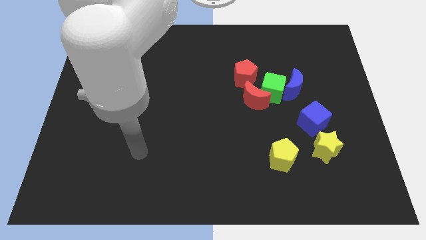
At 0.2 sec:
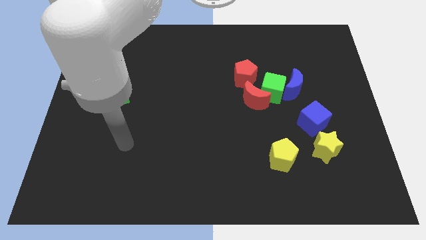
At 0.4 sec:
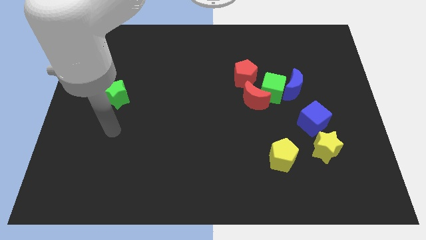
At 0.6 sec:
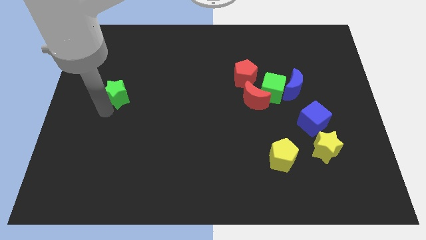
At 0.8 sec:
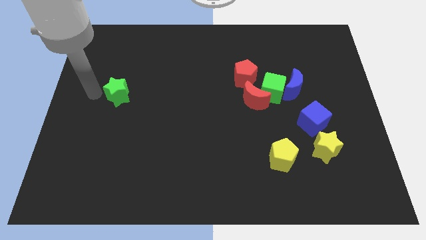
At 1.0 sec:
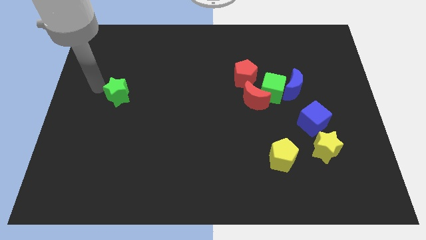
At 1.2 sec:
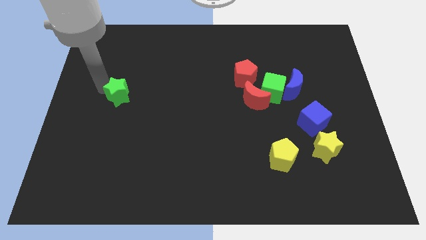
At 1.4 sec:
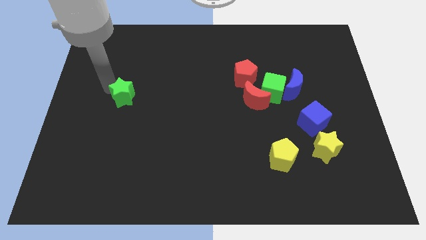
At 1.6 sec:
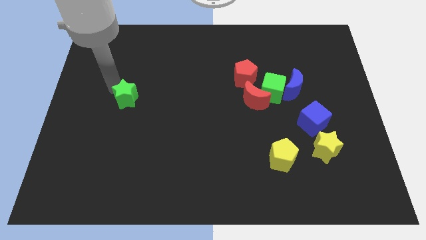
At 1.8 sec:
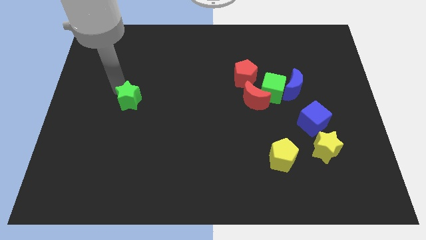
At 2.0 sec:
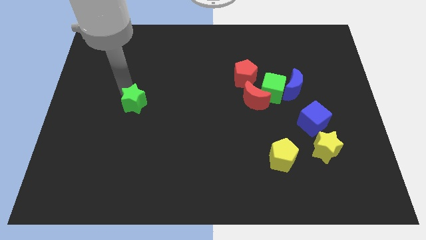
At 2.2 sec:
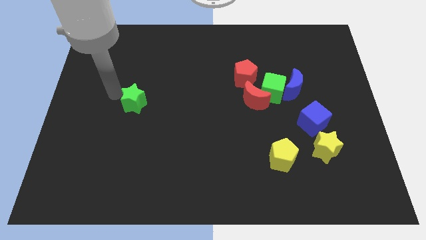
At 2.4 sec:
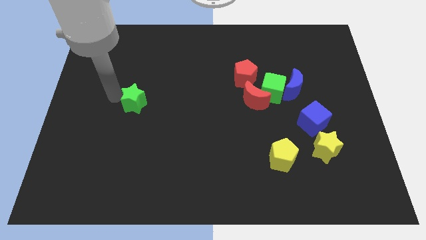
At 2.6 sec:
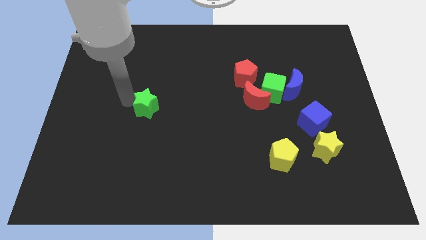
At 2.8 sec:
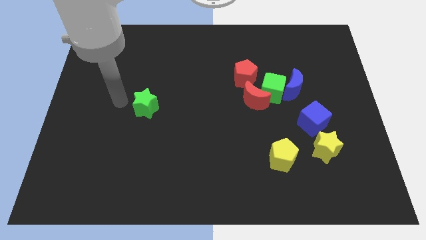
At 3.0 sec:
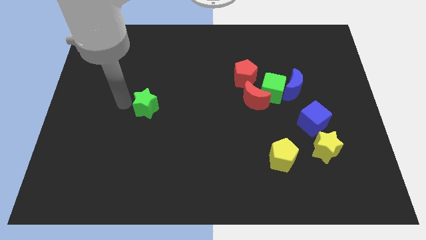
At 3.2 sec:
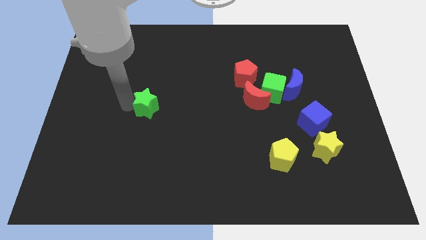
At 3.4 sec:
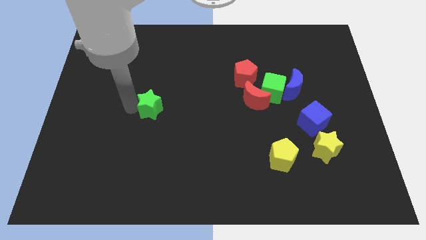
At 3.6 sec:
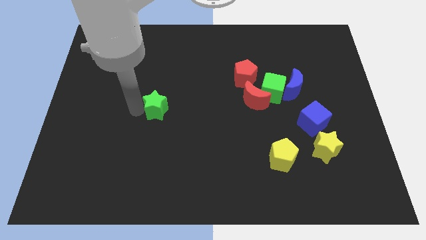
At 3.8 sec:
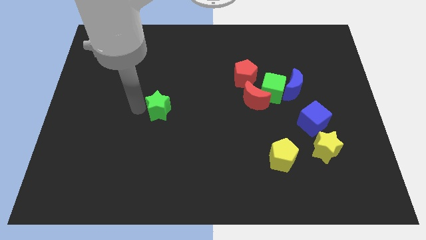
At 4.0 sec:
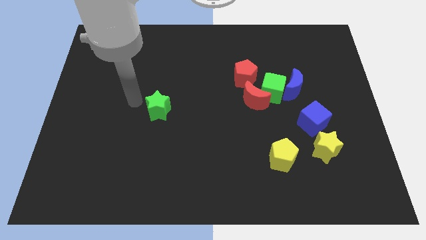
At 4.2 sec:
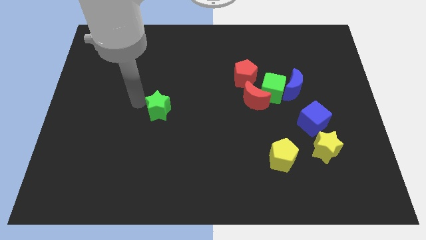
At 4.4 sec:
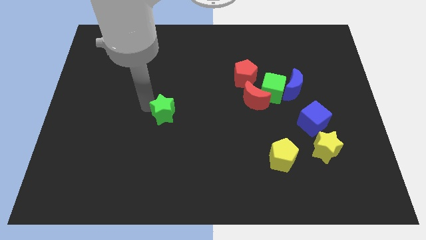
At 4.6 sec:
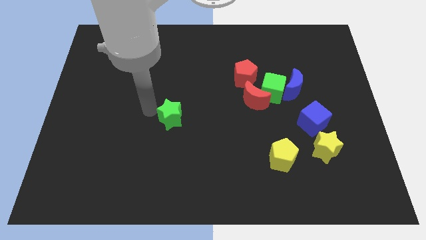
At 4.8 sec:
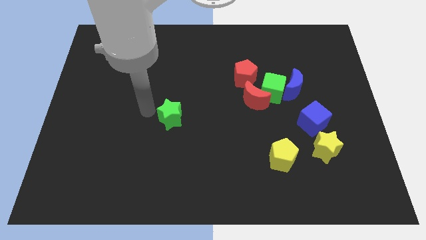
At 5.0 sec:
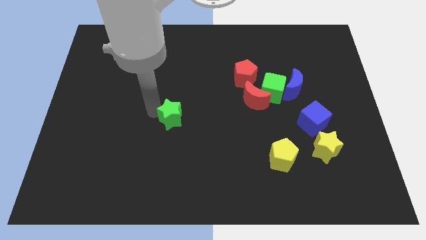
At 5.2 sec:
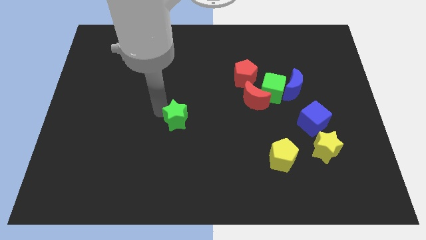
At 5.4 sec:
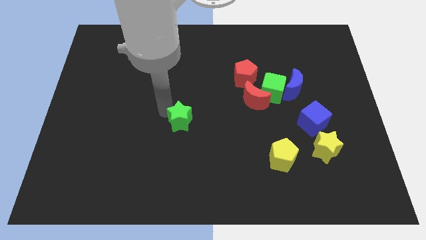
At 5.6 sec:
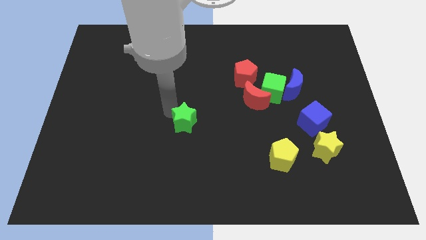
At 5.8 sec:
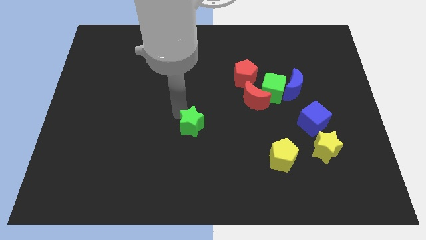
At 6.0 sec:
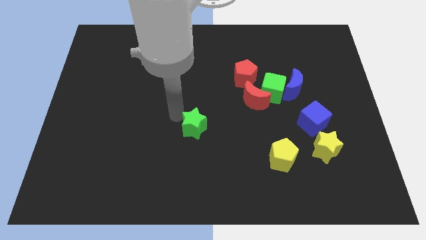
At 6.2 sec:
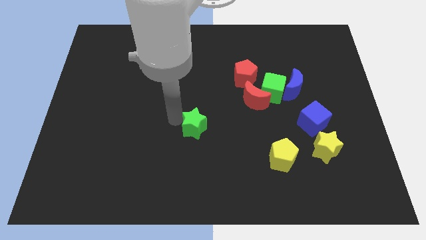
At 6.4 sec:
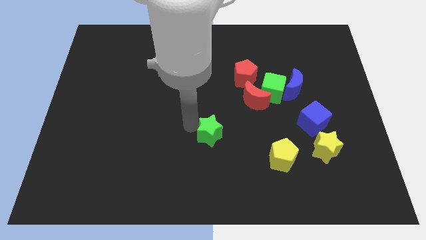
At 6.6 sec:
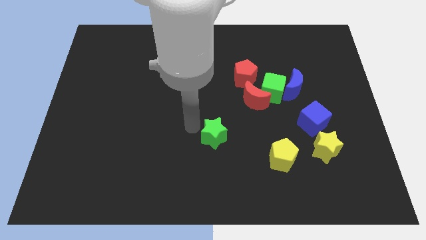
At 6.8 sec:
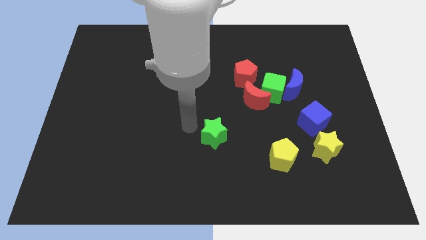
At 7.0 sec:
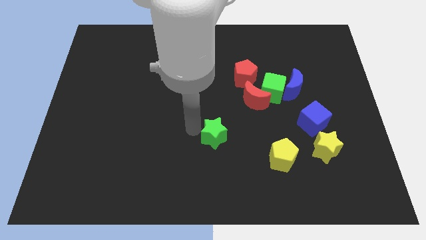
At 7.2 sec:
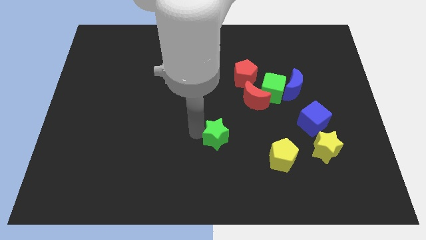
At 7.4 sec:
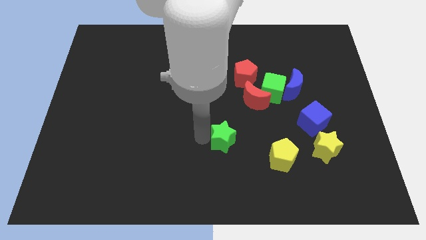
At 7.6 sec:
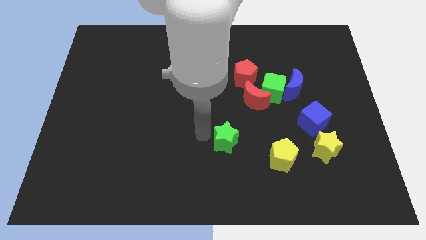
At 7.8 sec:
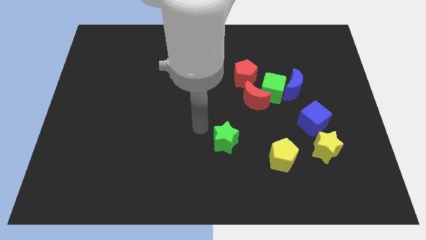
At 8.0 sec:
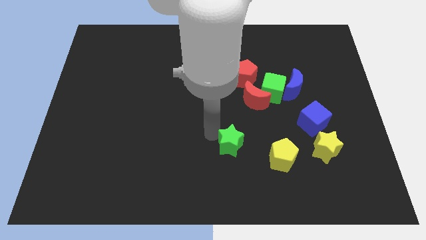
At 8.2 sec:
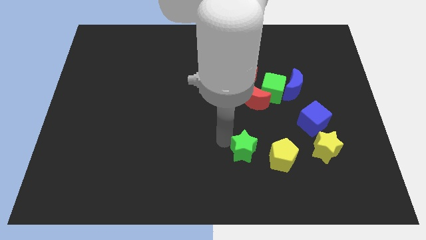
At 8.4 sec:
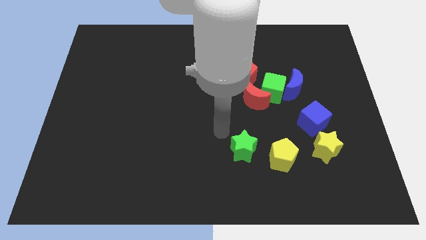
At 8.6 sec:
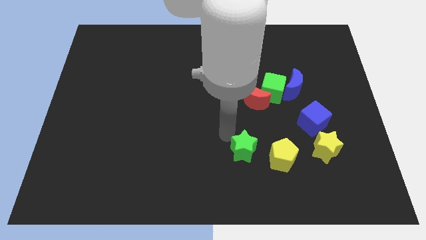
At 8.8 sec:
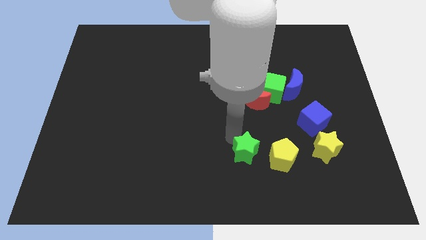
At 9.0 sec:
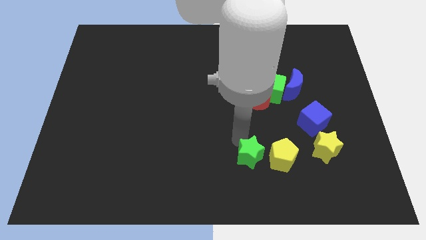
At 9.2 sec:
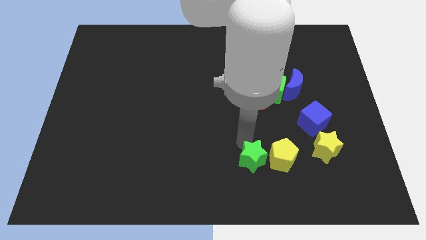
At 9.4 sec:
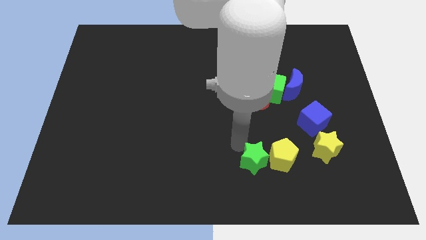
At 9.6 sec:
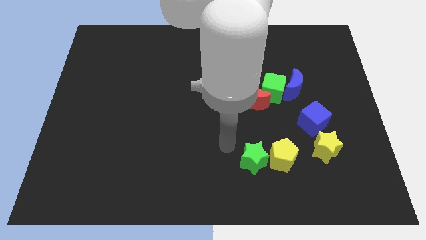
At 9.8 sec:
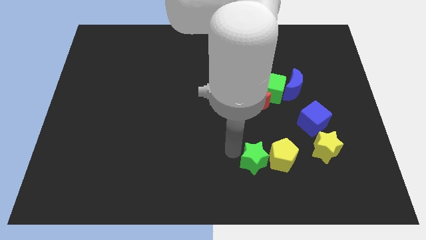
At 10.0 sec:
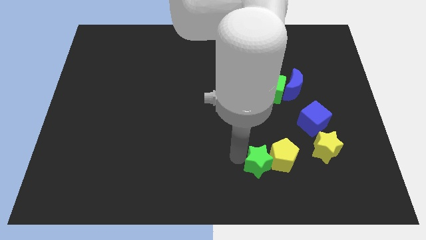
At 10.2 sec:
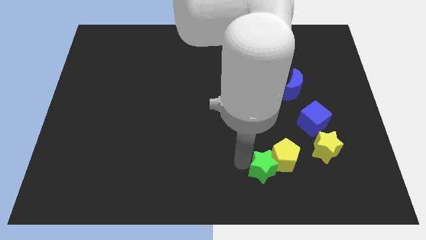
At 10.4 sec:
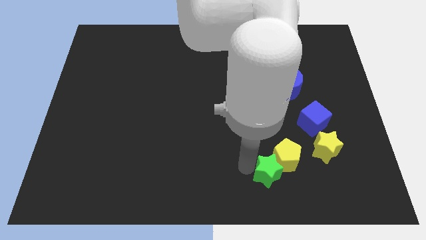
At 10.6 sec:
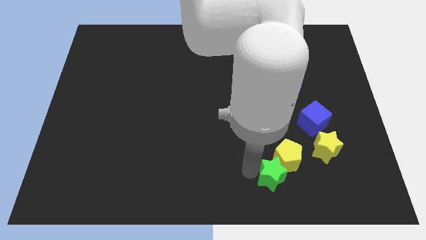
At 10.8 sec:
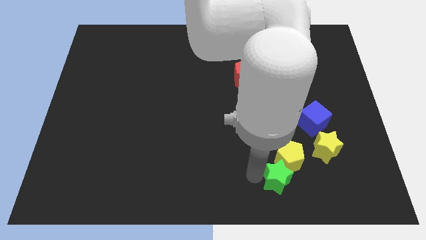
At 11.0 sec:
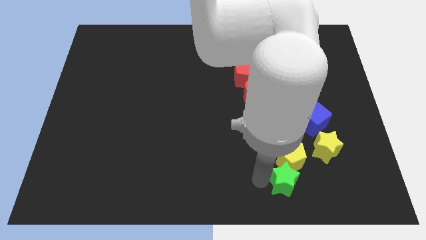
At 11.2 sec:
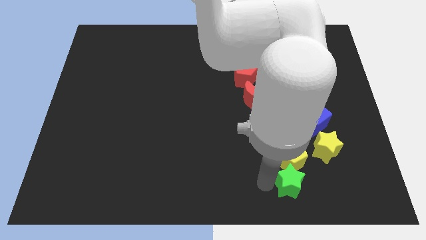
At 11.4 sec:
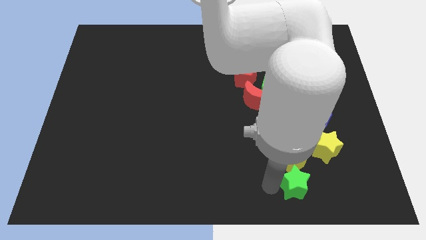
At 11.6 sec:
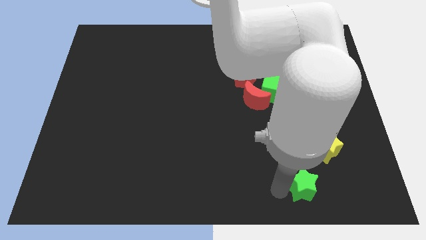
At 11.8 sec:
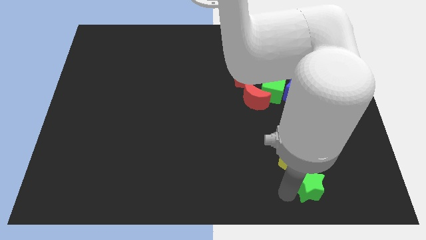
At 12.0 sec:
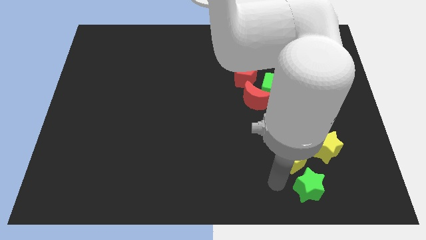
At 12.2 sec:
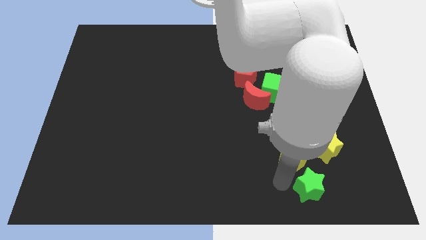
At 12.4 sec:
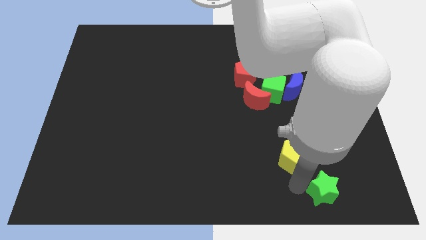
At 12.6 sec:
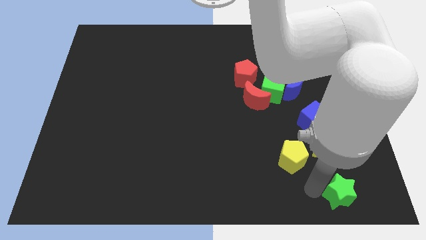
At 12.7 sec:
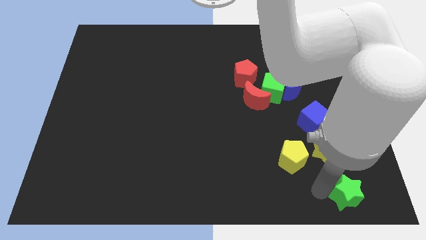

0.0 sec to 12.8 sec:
slide the green star to the lower right corner

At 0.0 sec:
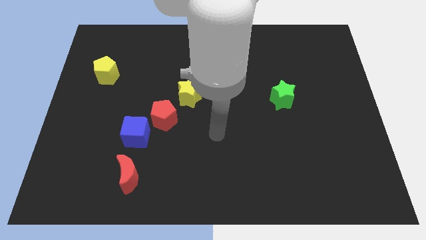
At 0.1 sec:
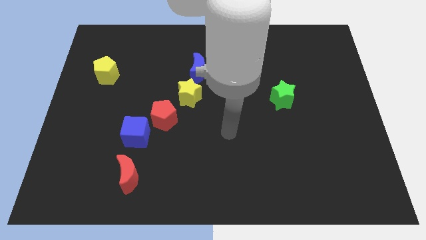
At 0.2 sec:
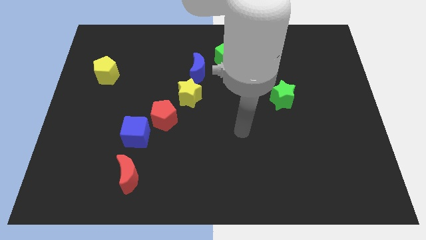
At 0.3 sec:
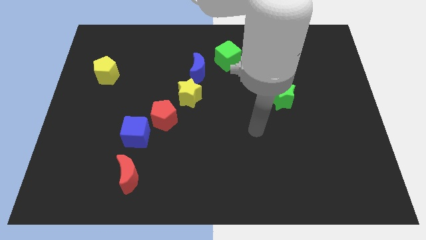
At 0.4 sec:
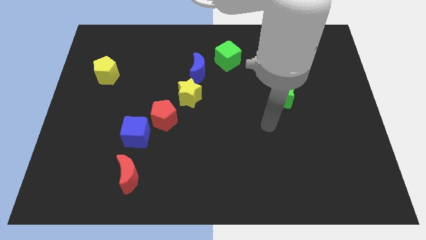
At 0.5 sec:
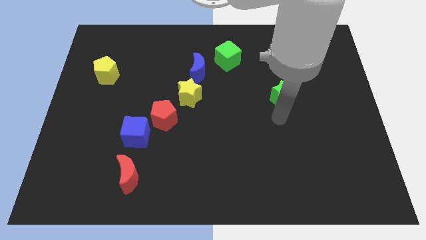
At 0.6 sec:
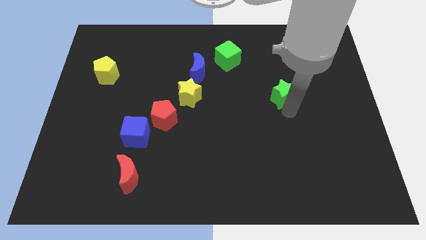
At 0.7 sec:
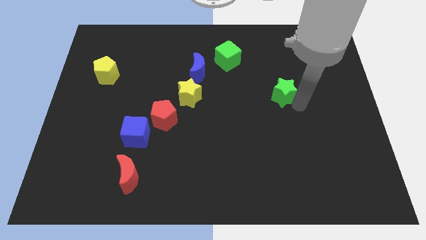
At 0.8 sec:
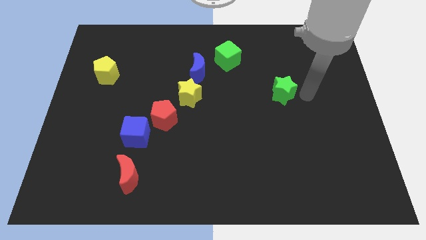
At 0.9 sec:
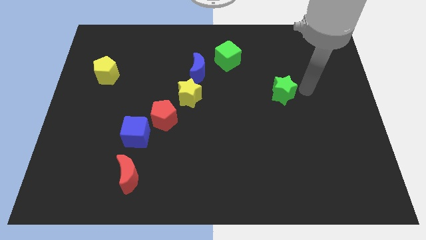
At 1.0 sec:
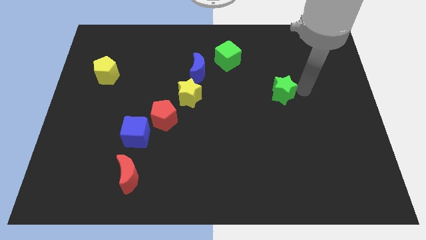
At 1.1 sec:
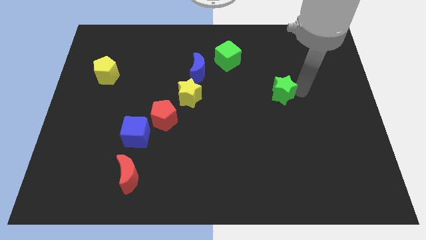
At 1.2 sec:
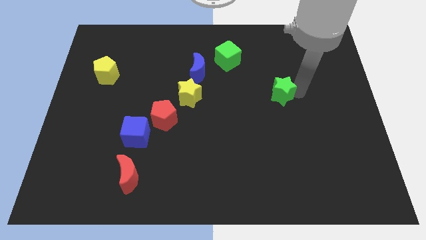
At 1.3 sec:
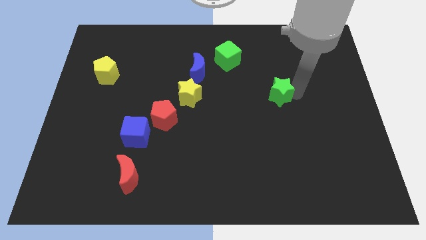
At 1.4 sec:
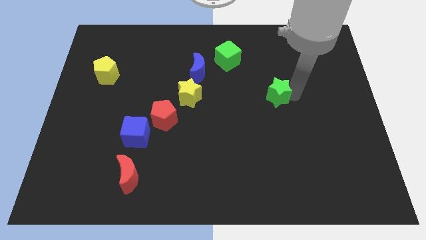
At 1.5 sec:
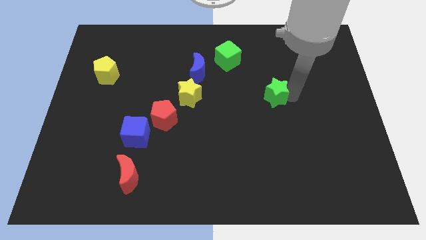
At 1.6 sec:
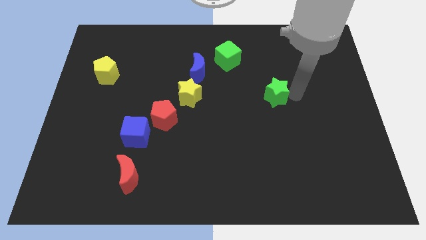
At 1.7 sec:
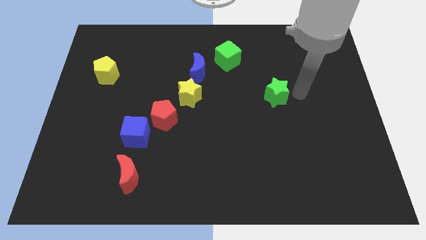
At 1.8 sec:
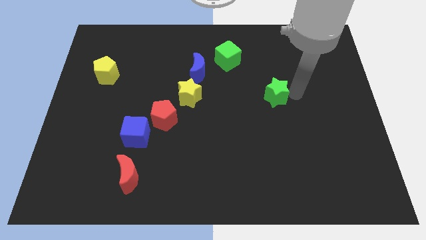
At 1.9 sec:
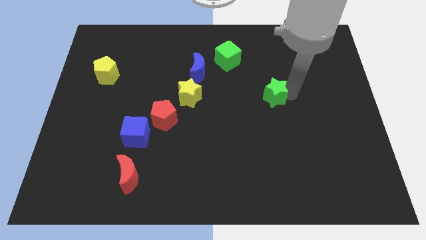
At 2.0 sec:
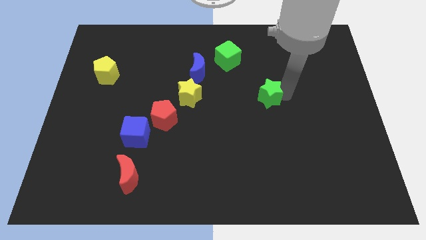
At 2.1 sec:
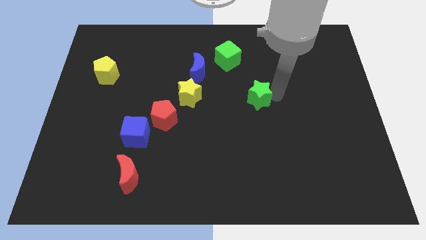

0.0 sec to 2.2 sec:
slide the green star to the middle of the board
